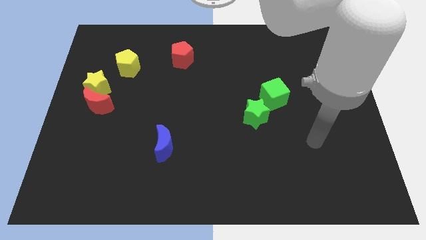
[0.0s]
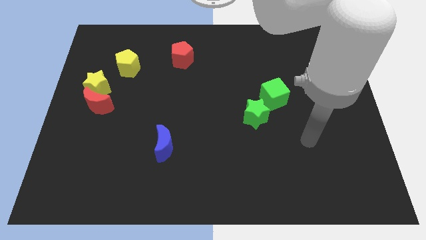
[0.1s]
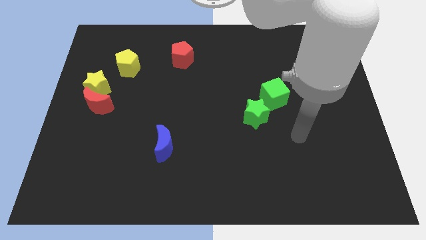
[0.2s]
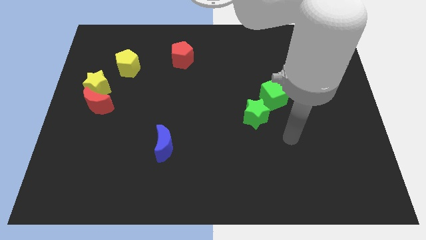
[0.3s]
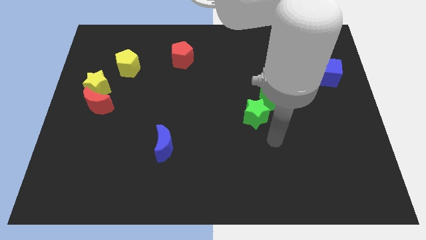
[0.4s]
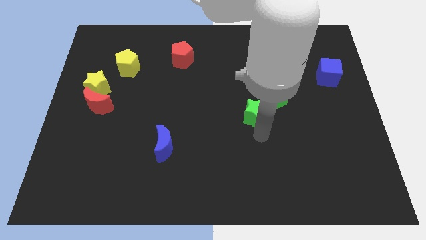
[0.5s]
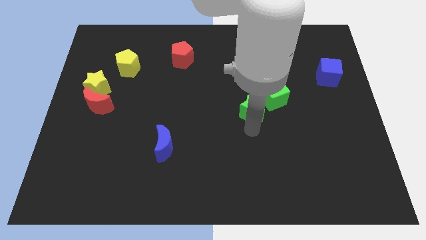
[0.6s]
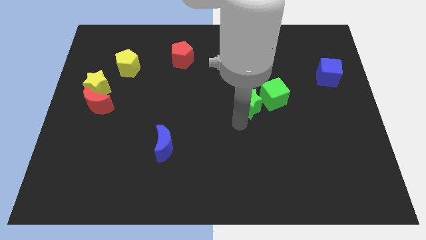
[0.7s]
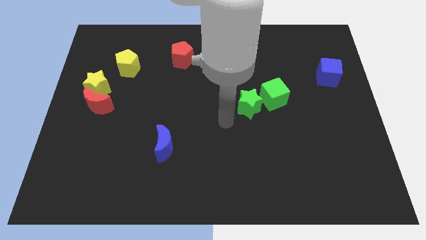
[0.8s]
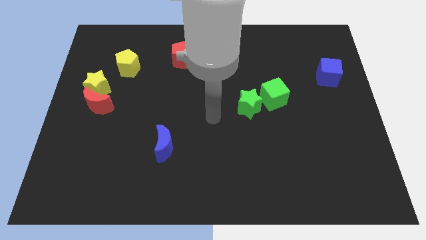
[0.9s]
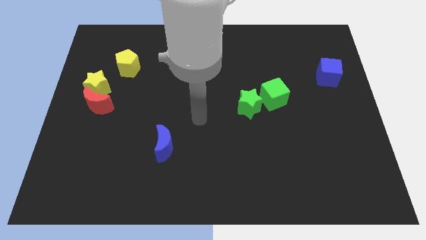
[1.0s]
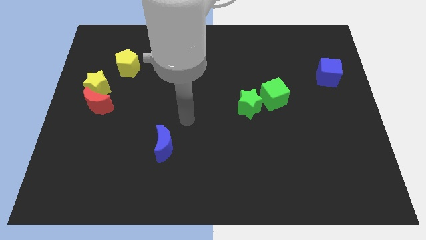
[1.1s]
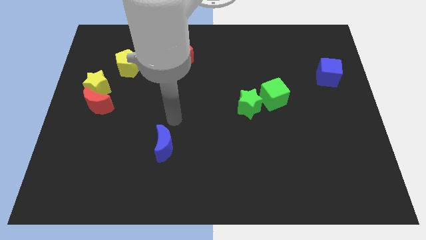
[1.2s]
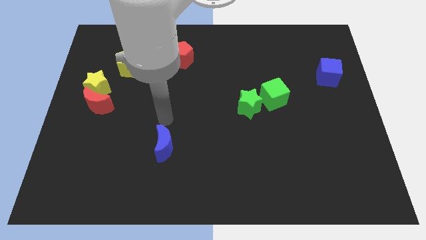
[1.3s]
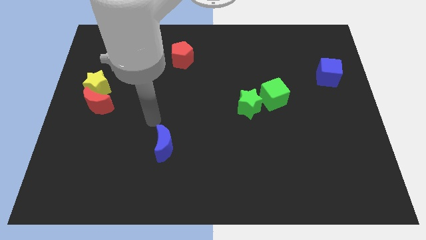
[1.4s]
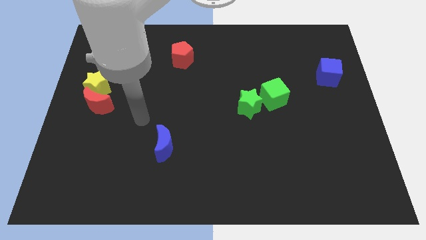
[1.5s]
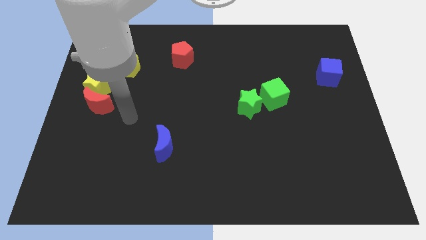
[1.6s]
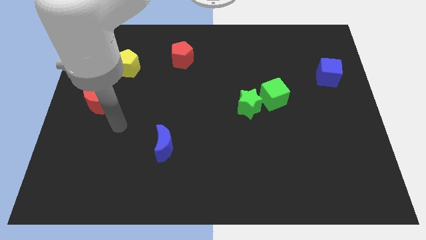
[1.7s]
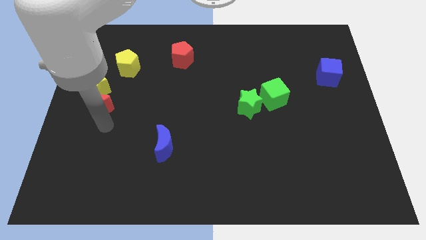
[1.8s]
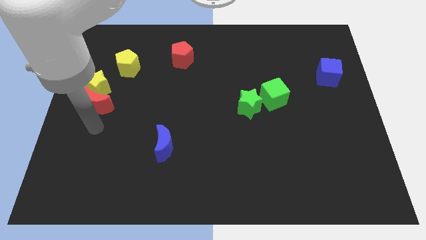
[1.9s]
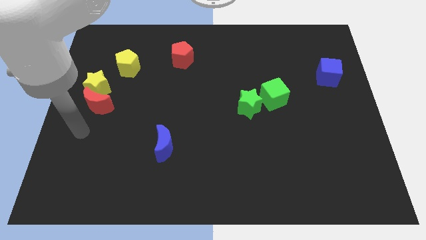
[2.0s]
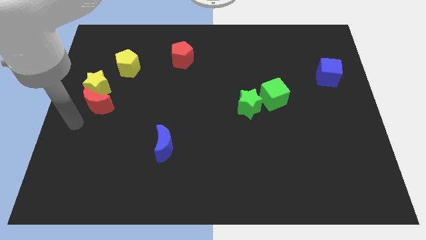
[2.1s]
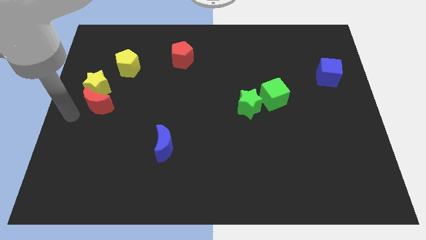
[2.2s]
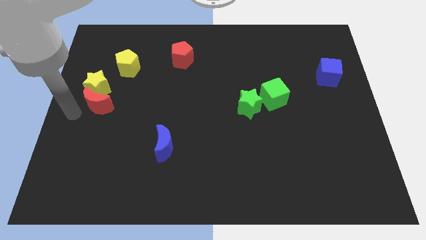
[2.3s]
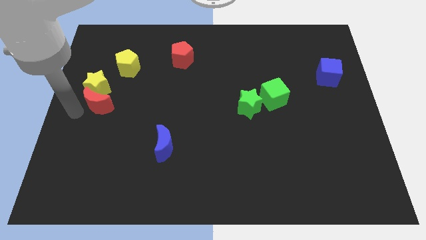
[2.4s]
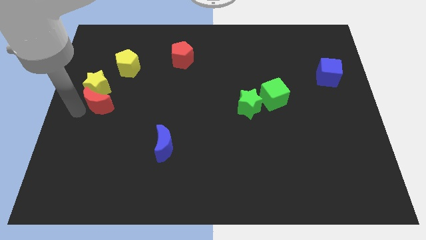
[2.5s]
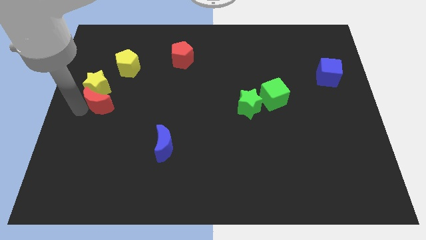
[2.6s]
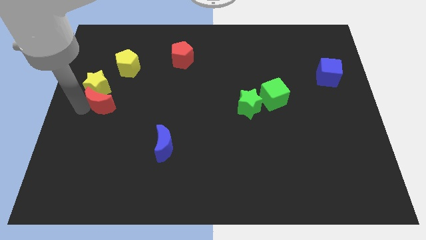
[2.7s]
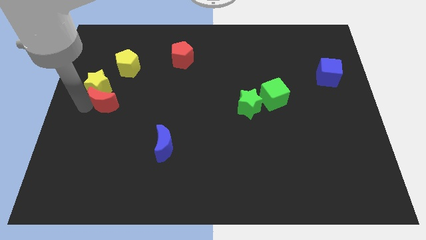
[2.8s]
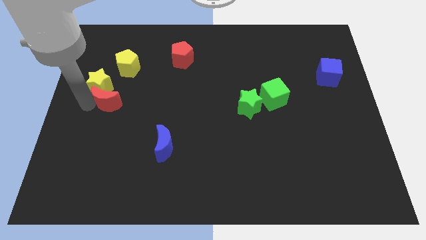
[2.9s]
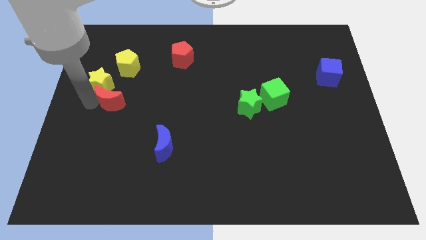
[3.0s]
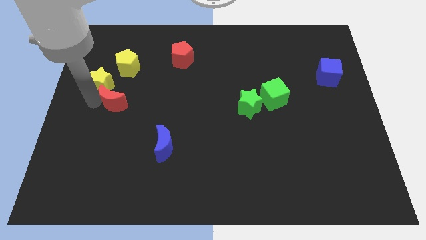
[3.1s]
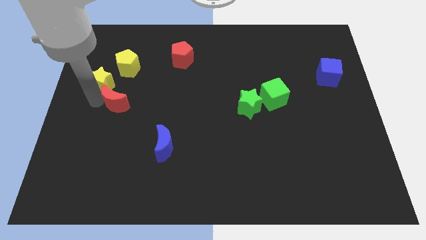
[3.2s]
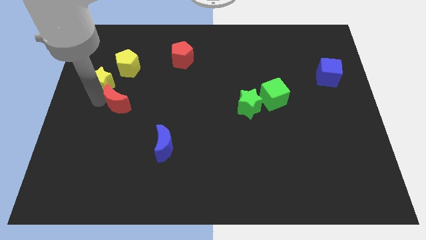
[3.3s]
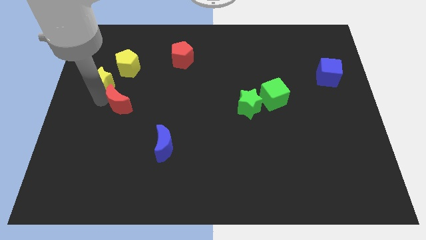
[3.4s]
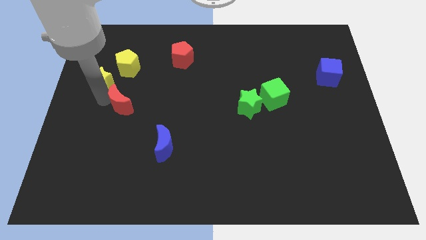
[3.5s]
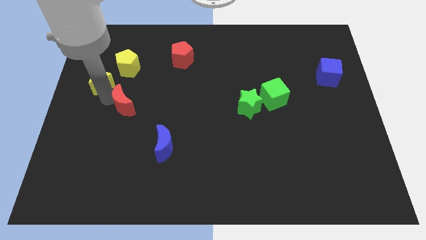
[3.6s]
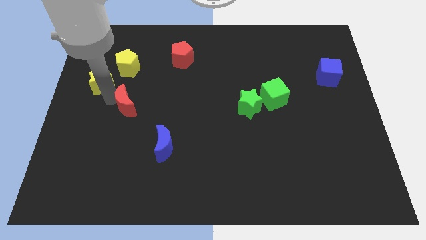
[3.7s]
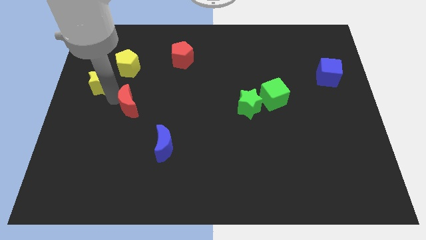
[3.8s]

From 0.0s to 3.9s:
slightly slide the red moon right

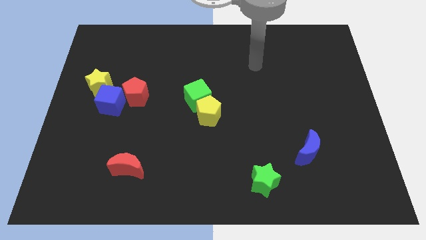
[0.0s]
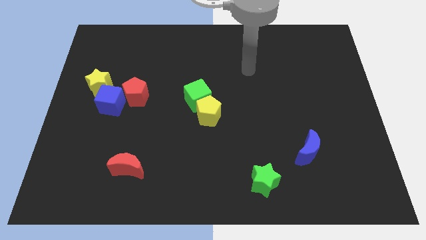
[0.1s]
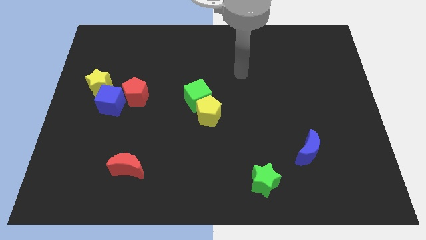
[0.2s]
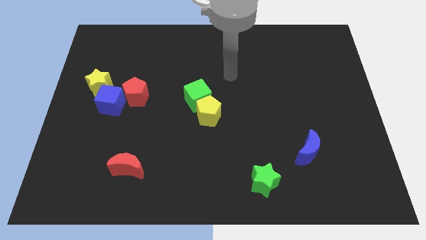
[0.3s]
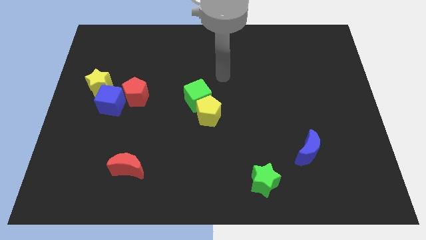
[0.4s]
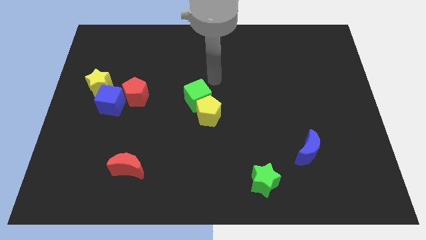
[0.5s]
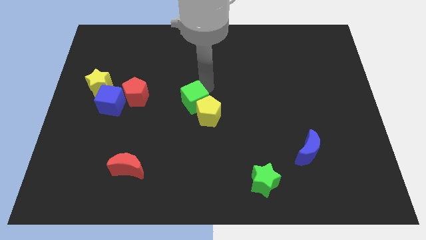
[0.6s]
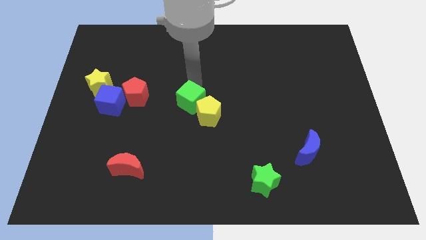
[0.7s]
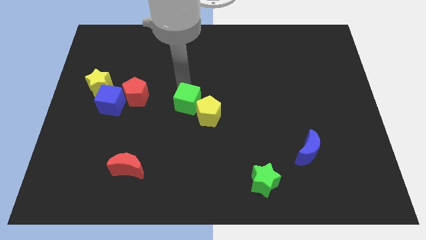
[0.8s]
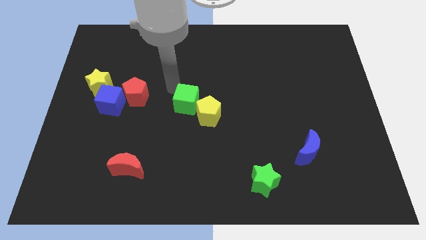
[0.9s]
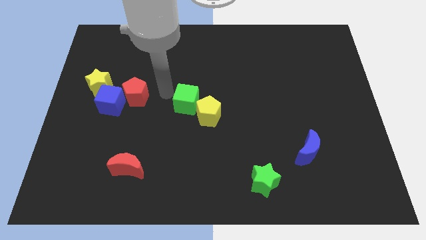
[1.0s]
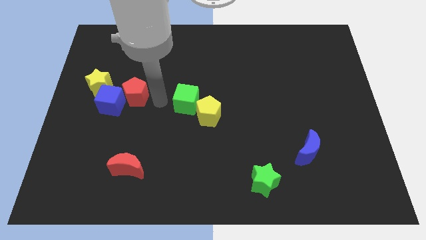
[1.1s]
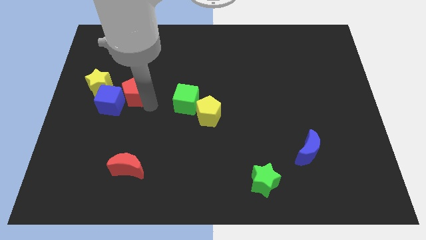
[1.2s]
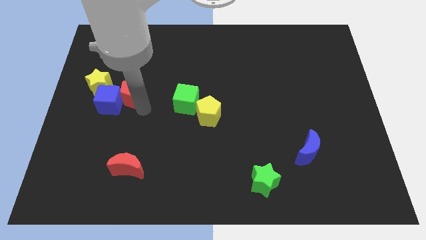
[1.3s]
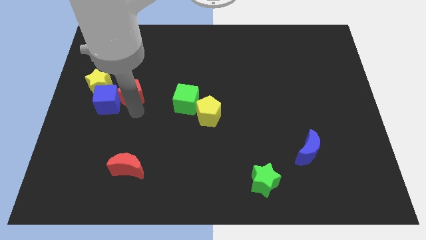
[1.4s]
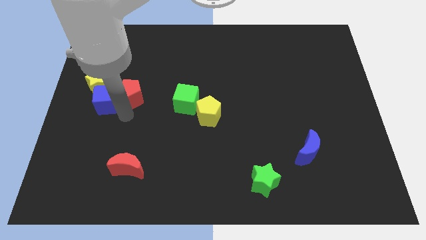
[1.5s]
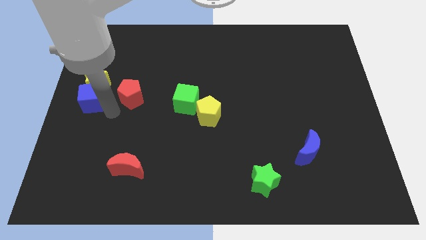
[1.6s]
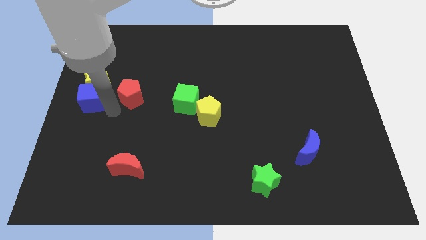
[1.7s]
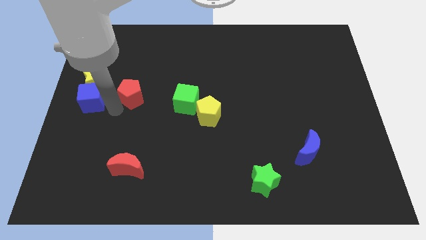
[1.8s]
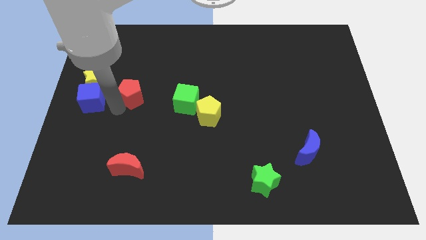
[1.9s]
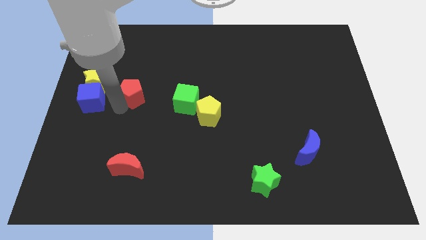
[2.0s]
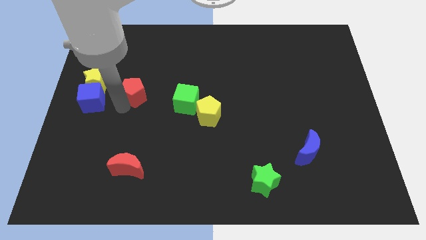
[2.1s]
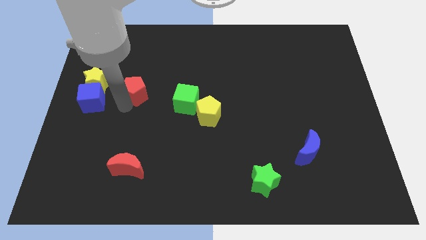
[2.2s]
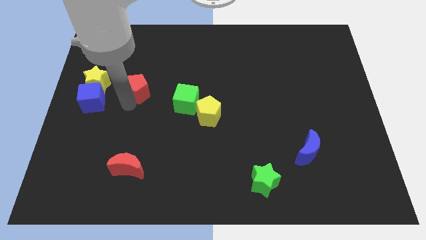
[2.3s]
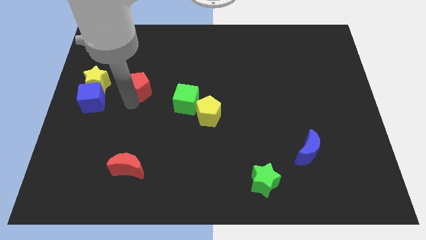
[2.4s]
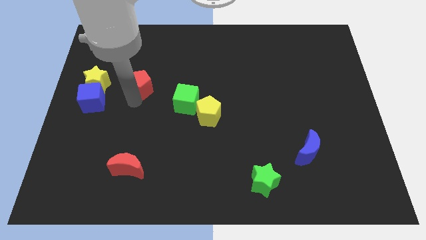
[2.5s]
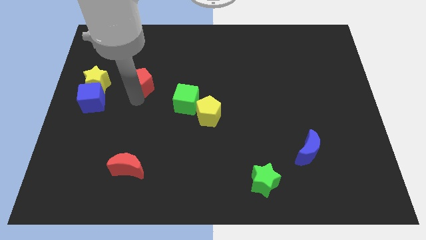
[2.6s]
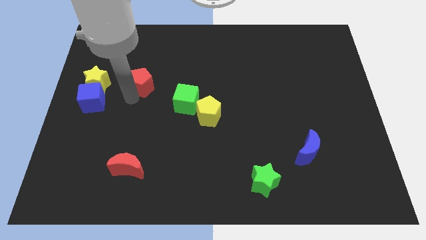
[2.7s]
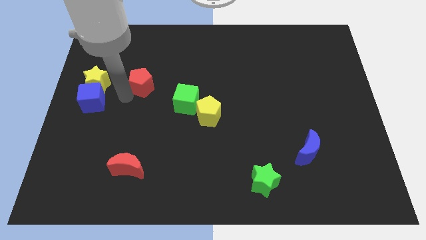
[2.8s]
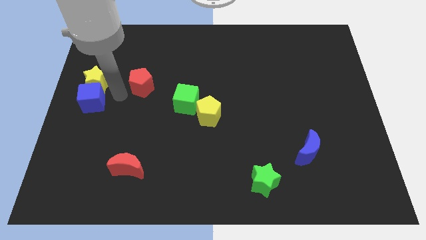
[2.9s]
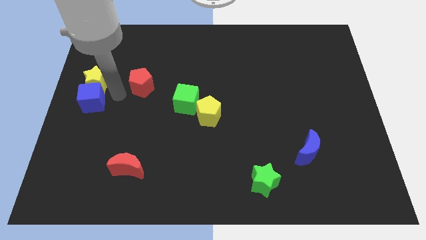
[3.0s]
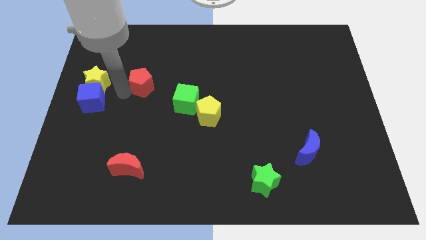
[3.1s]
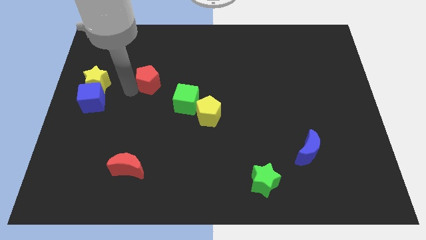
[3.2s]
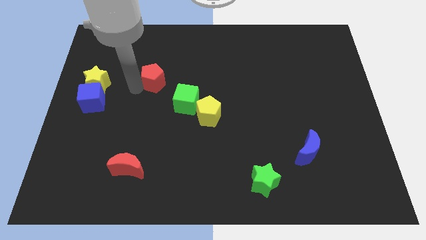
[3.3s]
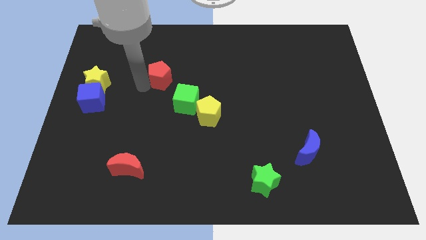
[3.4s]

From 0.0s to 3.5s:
move the red pentagon upwards and then right a little

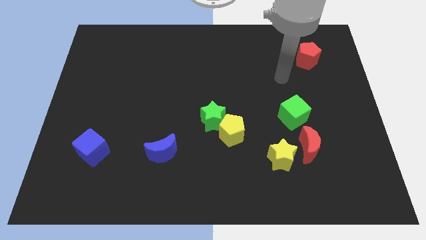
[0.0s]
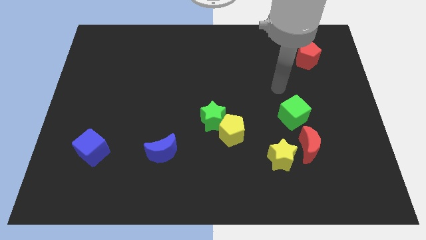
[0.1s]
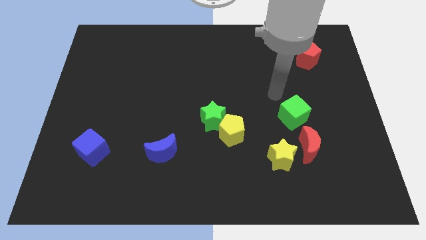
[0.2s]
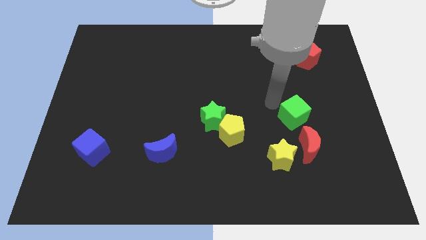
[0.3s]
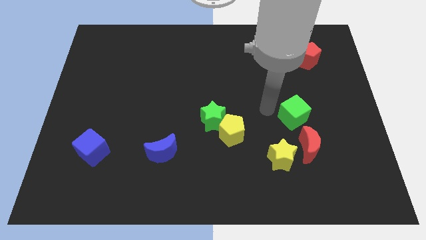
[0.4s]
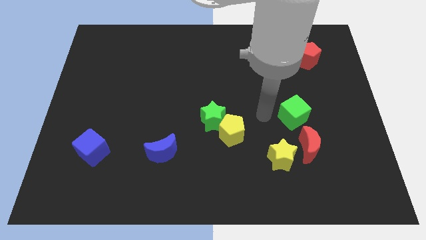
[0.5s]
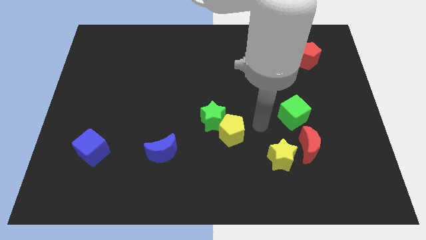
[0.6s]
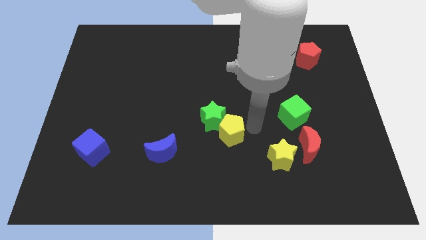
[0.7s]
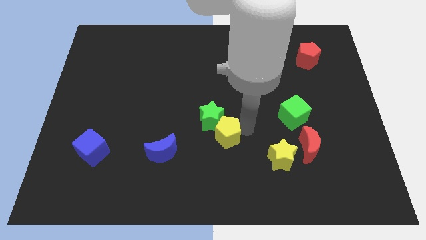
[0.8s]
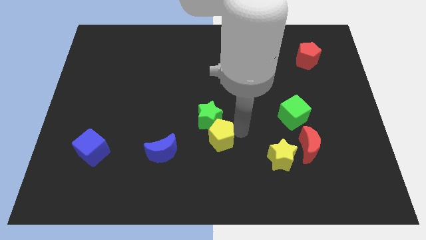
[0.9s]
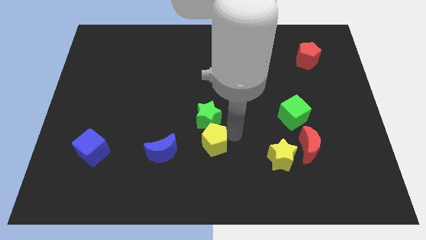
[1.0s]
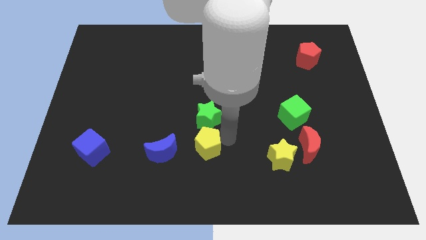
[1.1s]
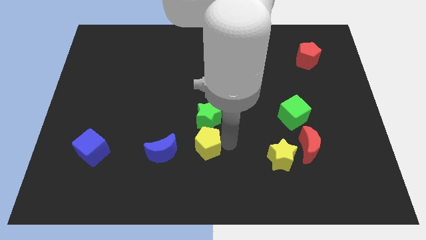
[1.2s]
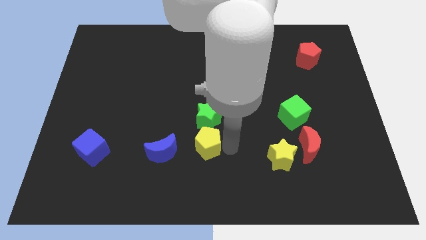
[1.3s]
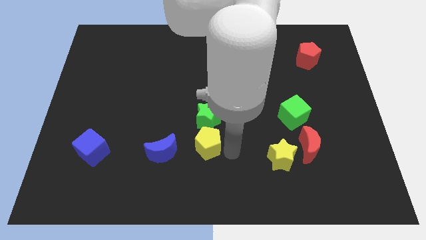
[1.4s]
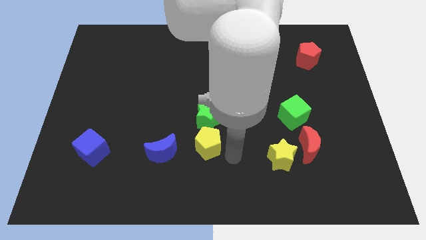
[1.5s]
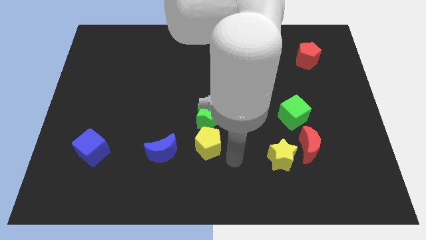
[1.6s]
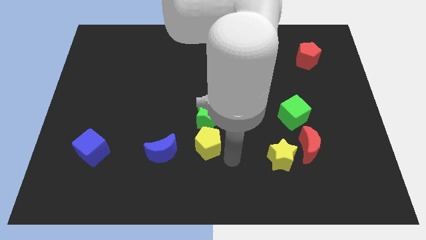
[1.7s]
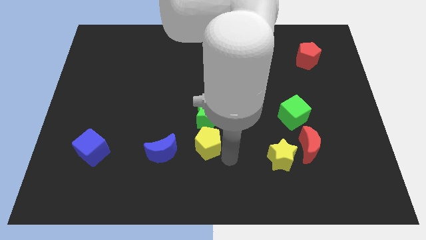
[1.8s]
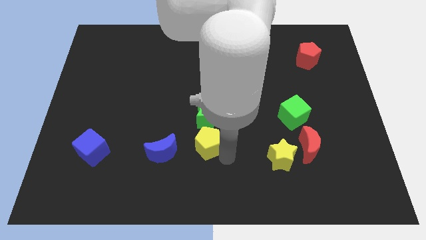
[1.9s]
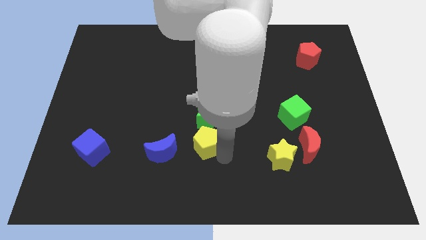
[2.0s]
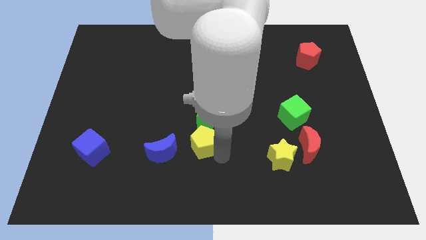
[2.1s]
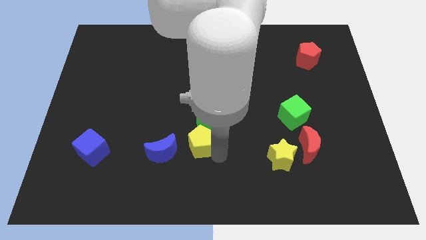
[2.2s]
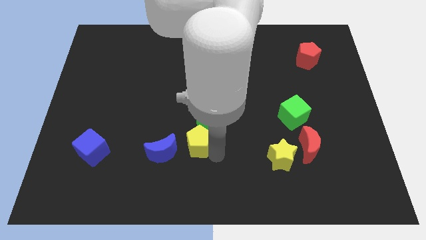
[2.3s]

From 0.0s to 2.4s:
push the yellow pentagon left a bit
